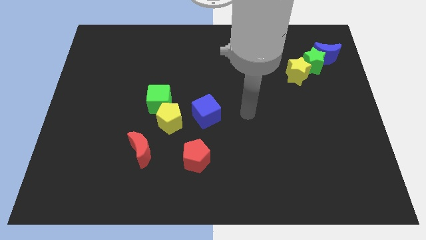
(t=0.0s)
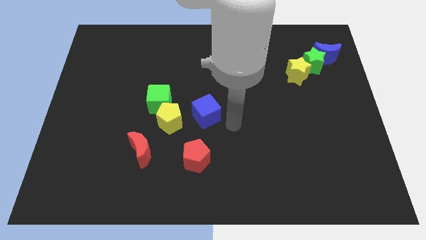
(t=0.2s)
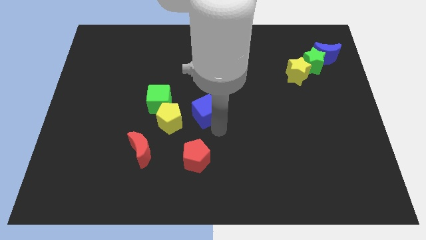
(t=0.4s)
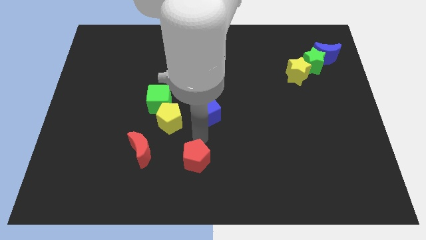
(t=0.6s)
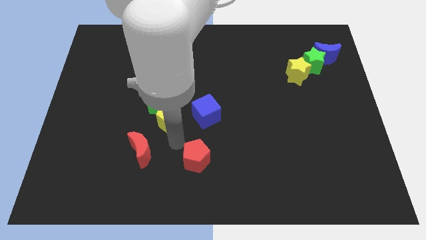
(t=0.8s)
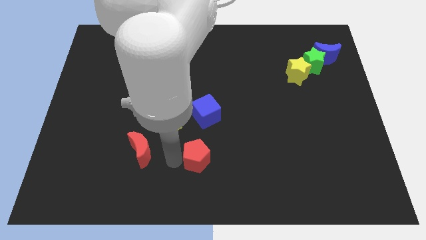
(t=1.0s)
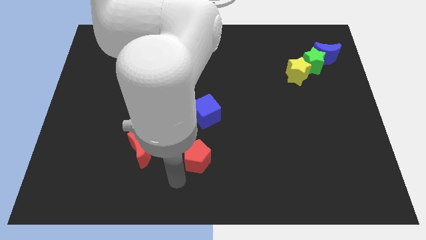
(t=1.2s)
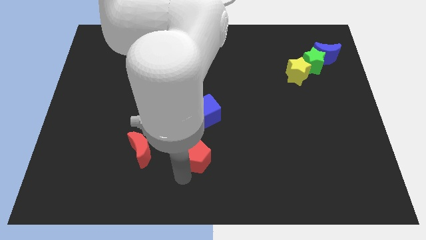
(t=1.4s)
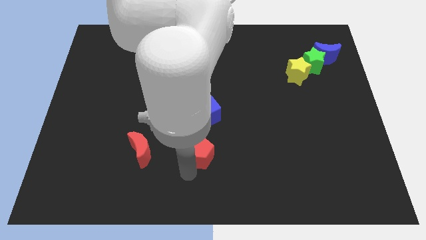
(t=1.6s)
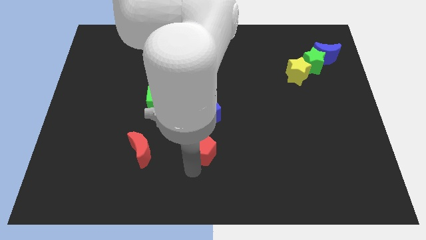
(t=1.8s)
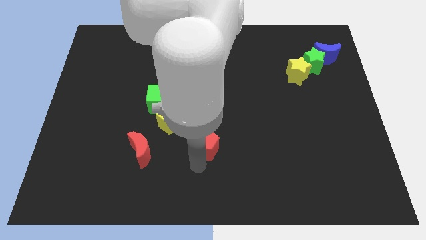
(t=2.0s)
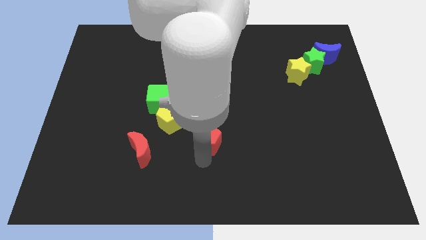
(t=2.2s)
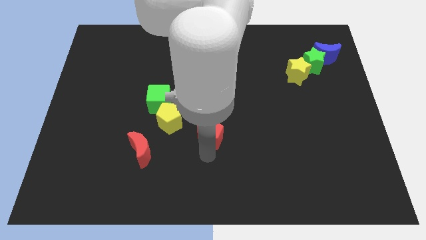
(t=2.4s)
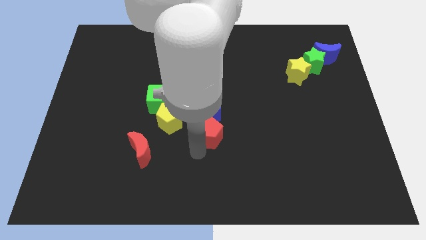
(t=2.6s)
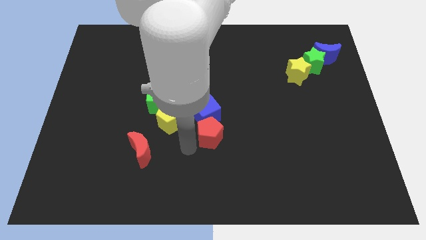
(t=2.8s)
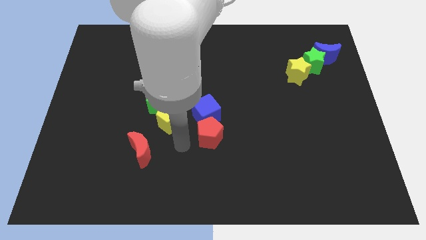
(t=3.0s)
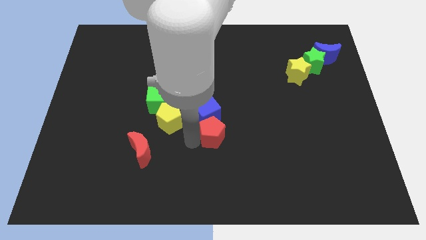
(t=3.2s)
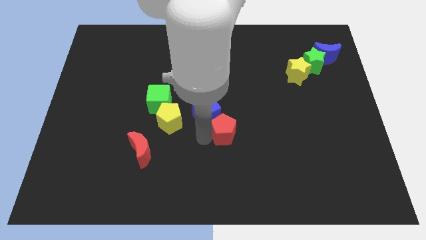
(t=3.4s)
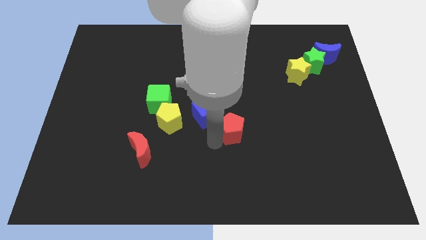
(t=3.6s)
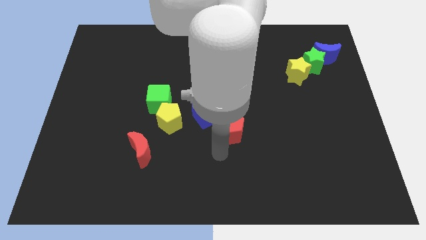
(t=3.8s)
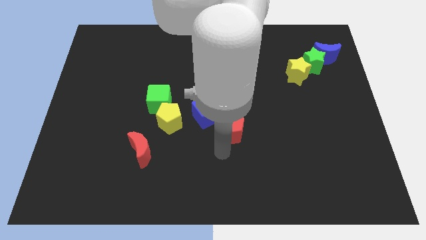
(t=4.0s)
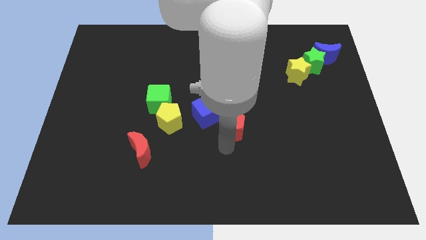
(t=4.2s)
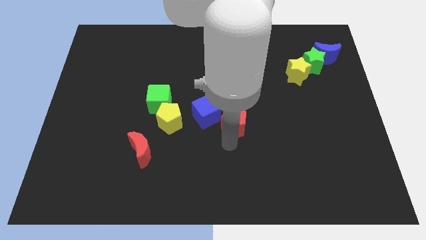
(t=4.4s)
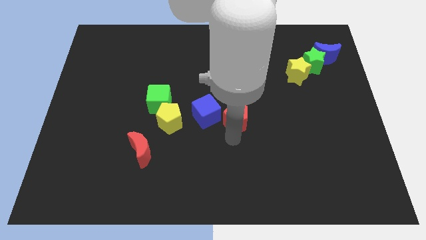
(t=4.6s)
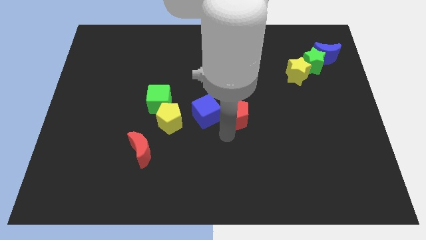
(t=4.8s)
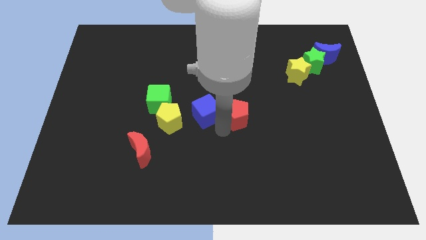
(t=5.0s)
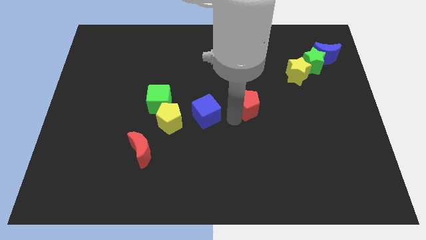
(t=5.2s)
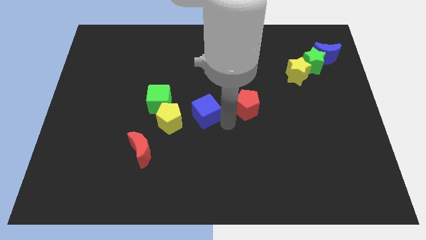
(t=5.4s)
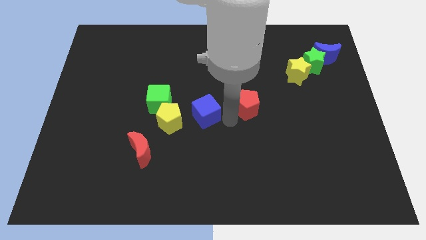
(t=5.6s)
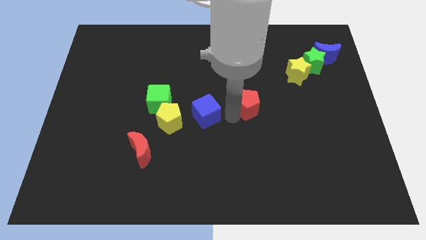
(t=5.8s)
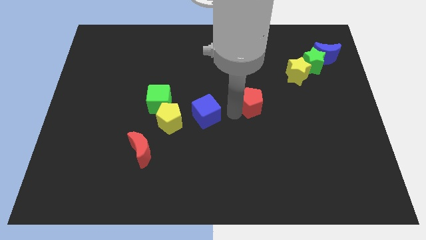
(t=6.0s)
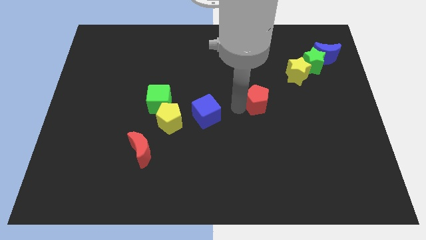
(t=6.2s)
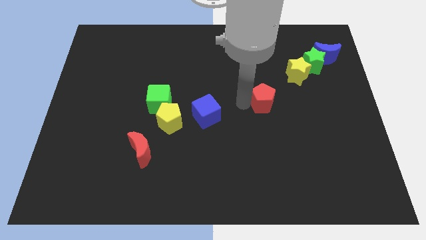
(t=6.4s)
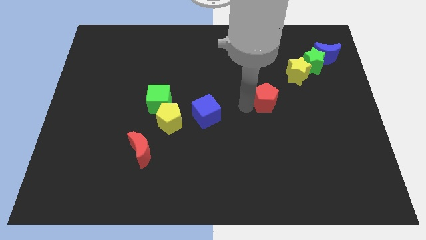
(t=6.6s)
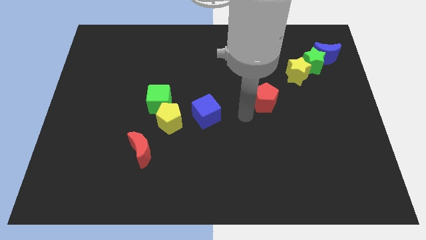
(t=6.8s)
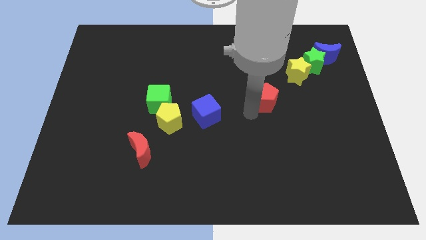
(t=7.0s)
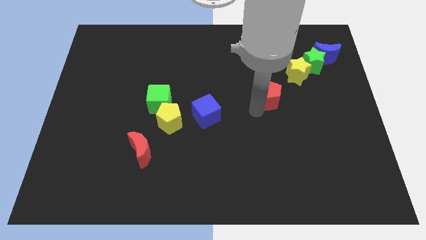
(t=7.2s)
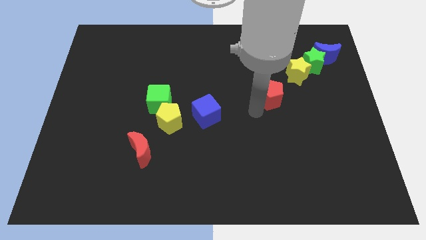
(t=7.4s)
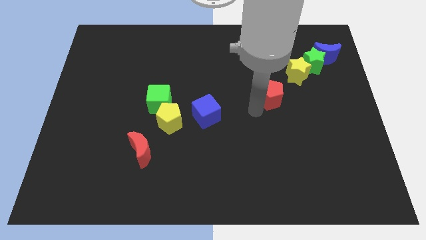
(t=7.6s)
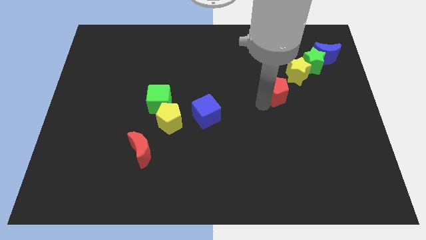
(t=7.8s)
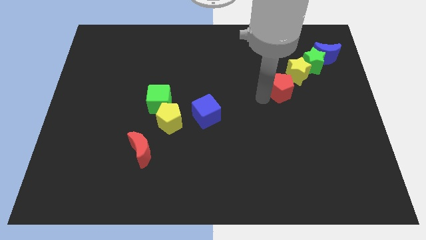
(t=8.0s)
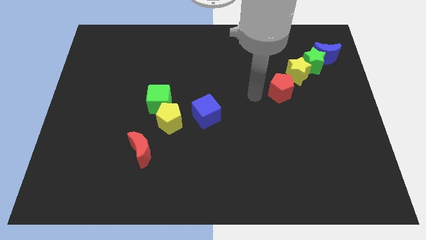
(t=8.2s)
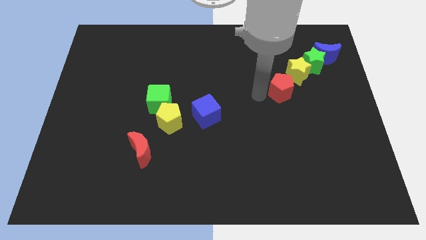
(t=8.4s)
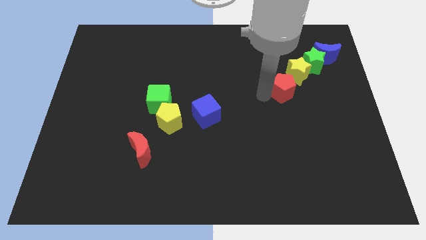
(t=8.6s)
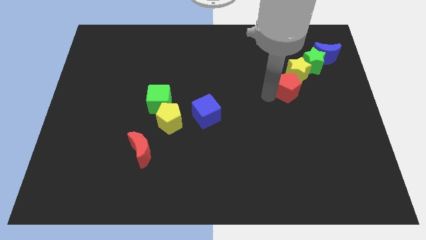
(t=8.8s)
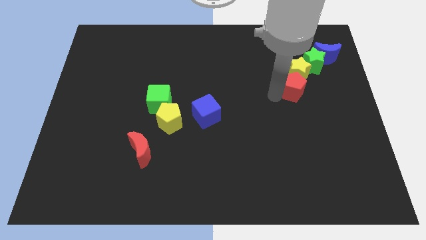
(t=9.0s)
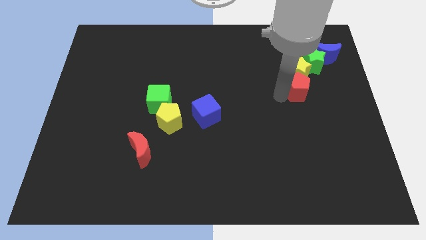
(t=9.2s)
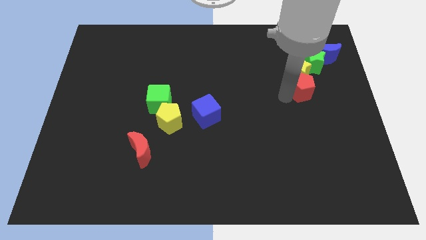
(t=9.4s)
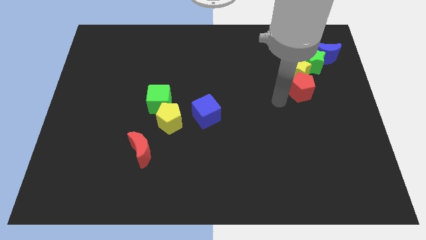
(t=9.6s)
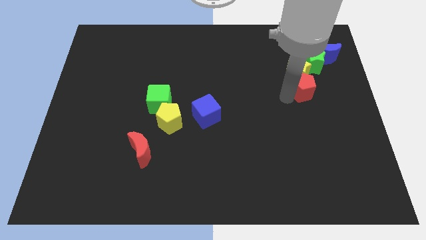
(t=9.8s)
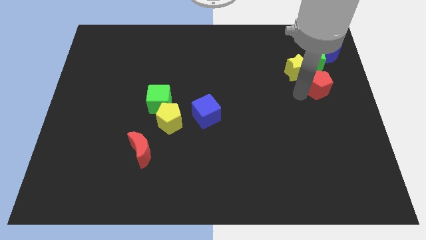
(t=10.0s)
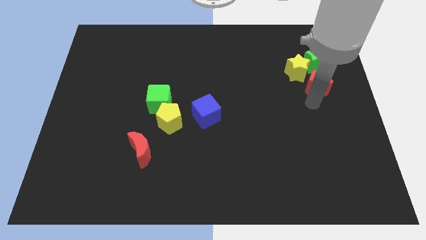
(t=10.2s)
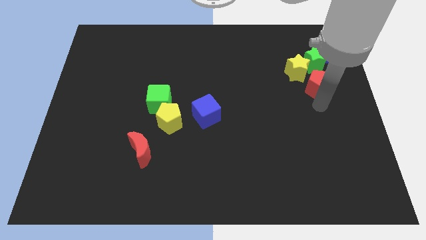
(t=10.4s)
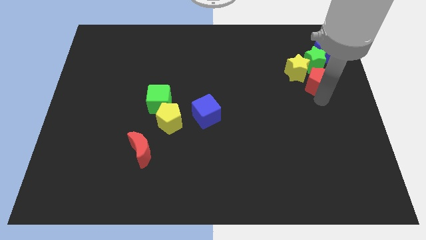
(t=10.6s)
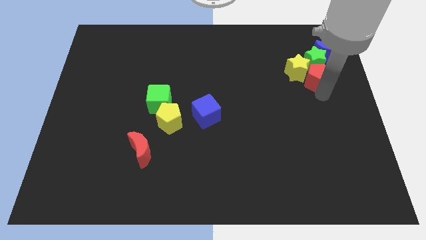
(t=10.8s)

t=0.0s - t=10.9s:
put the red pentagon close to the green star

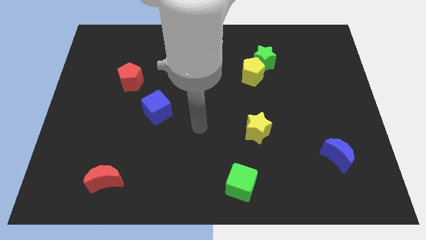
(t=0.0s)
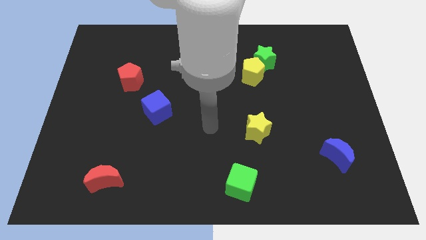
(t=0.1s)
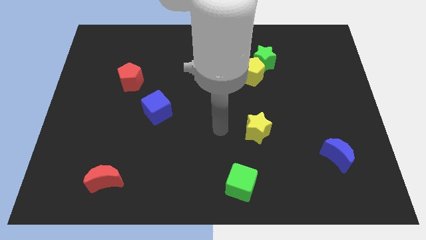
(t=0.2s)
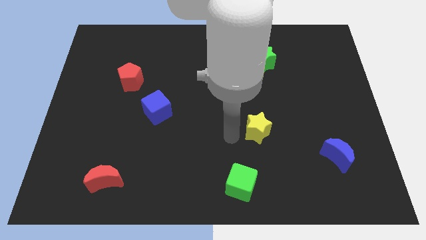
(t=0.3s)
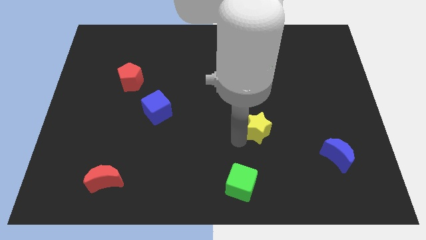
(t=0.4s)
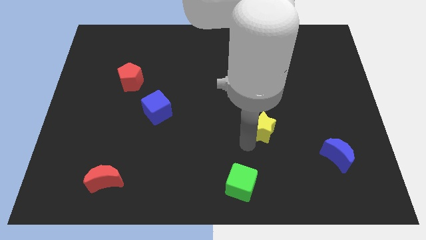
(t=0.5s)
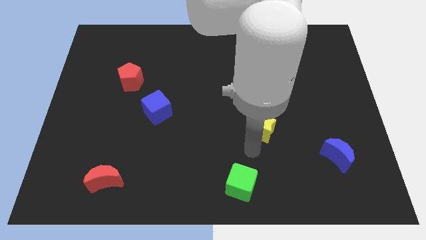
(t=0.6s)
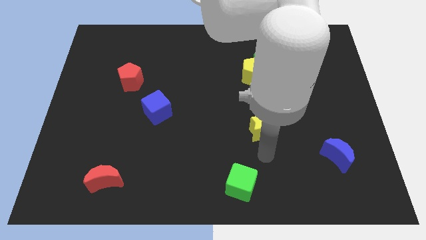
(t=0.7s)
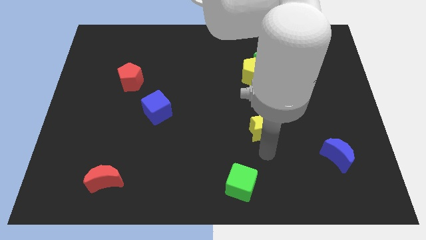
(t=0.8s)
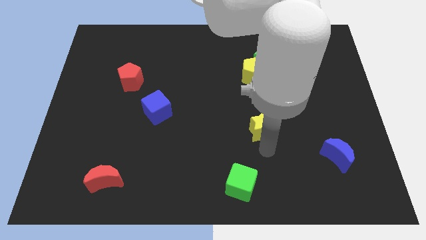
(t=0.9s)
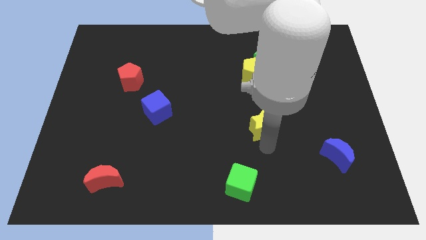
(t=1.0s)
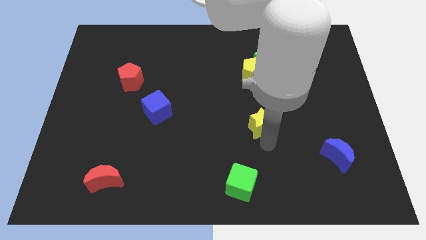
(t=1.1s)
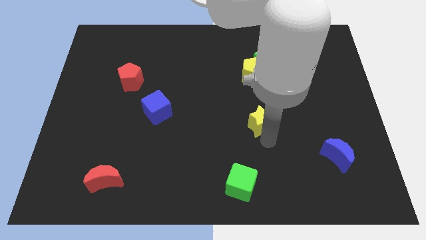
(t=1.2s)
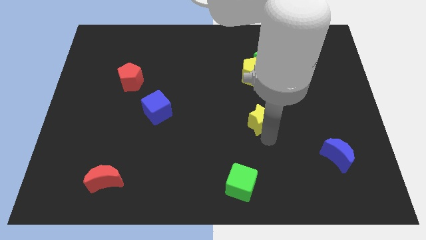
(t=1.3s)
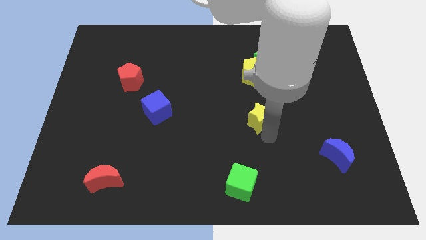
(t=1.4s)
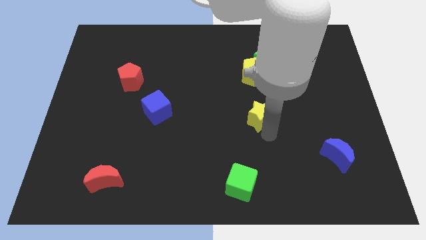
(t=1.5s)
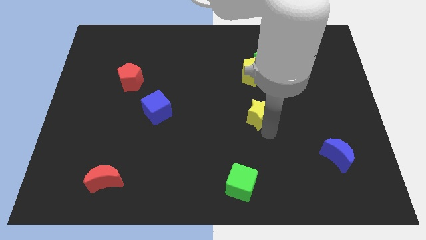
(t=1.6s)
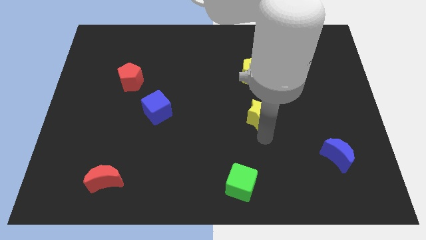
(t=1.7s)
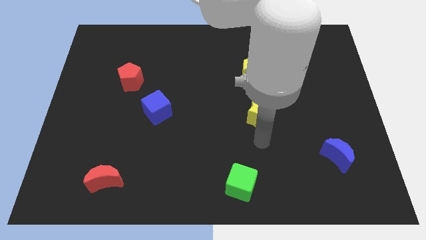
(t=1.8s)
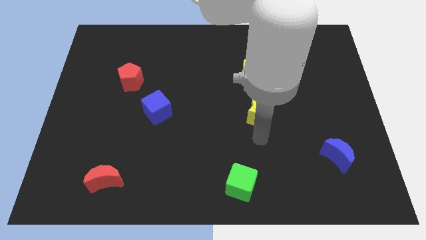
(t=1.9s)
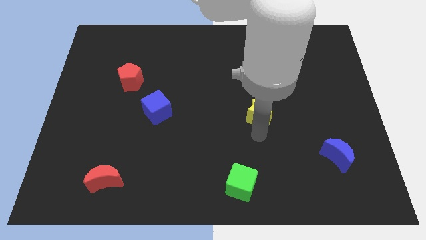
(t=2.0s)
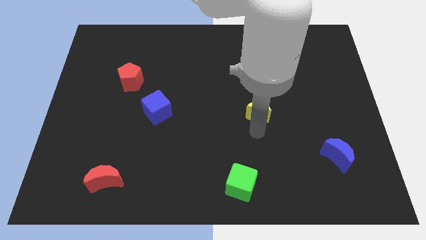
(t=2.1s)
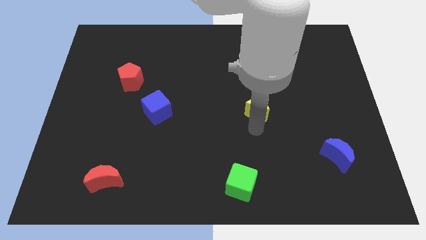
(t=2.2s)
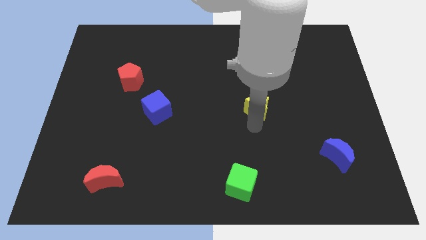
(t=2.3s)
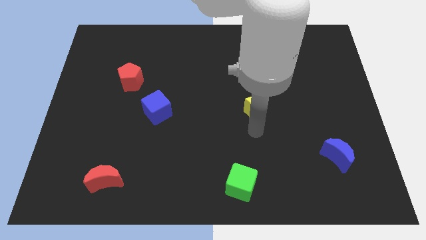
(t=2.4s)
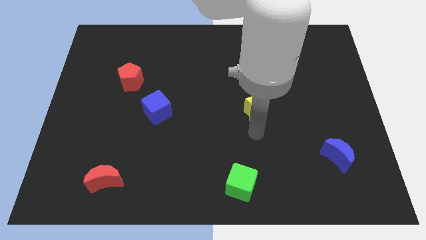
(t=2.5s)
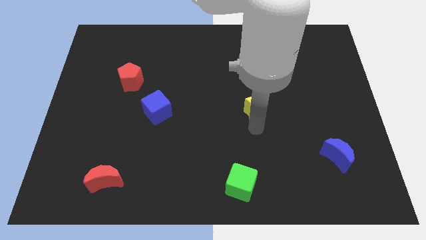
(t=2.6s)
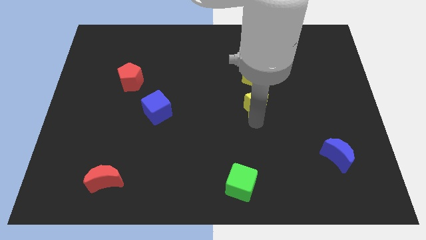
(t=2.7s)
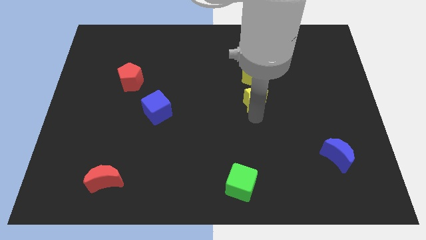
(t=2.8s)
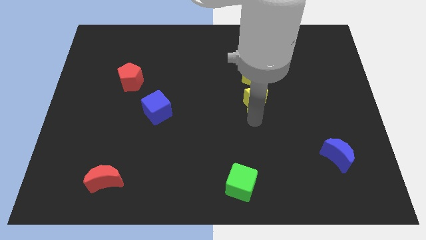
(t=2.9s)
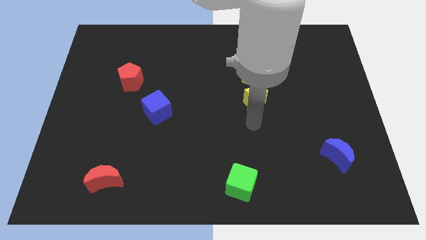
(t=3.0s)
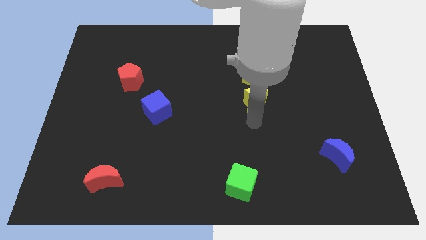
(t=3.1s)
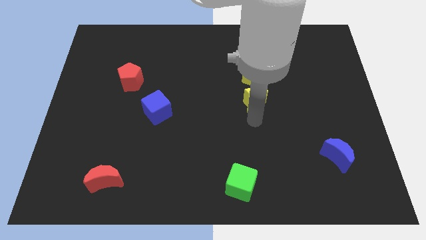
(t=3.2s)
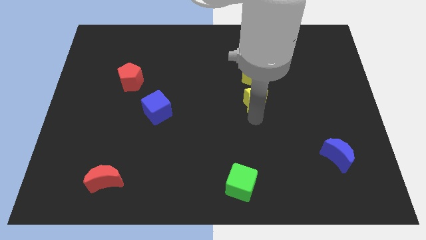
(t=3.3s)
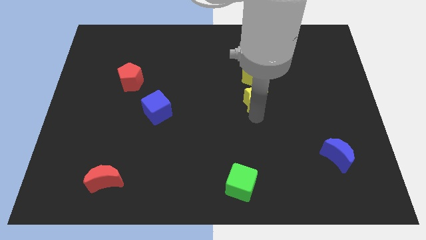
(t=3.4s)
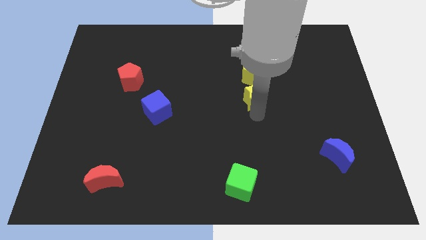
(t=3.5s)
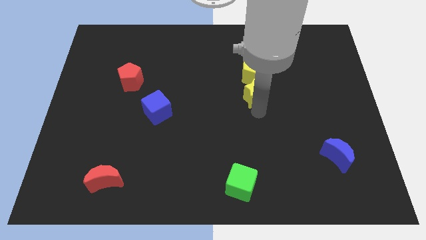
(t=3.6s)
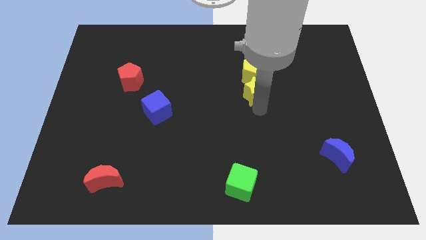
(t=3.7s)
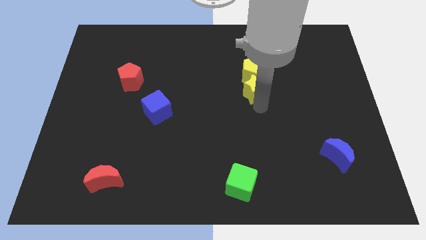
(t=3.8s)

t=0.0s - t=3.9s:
move the yellow star close to the yellow pentagon
